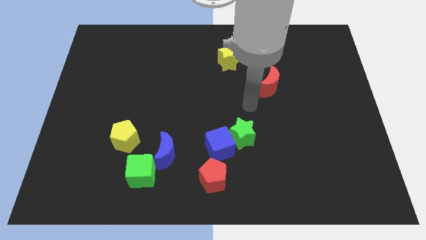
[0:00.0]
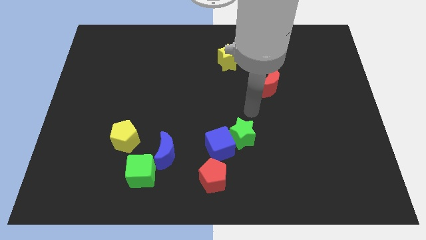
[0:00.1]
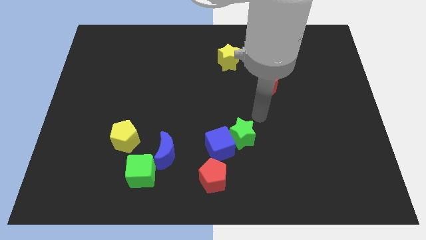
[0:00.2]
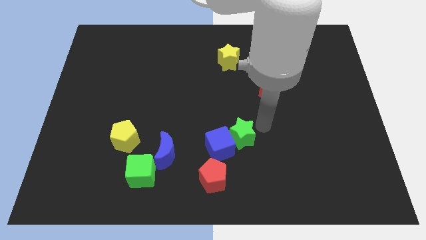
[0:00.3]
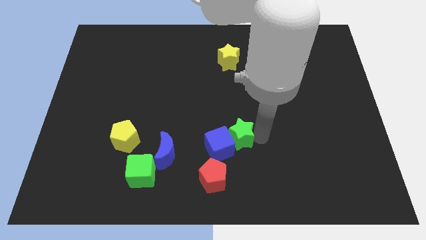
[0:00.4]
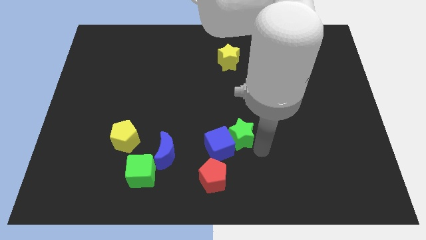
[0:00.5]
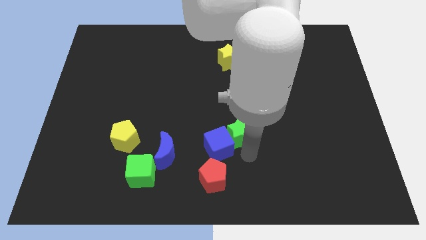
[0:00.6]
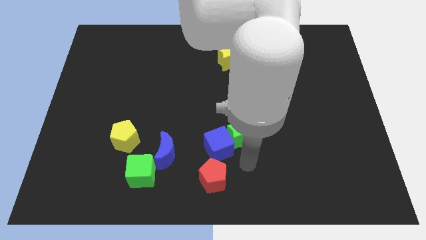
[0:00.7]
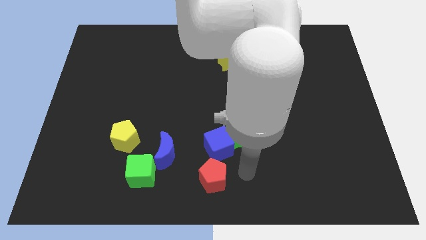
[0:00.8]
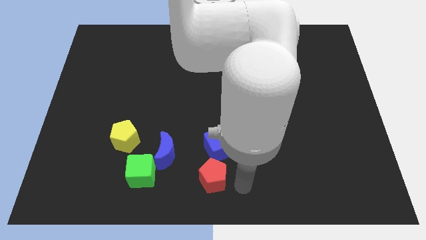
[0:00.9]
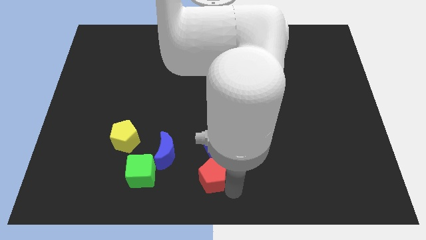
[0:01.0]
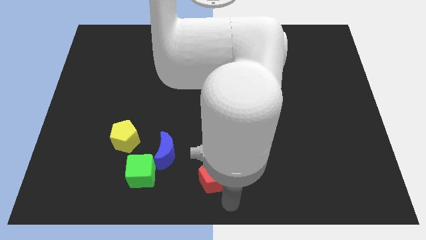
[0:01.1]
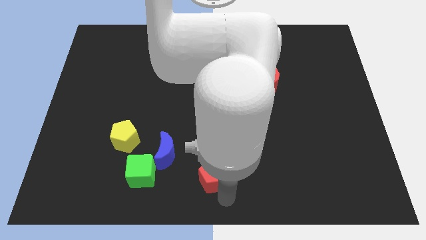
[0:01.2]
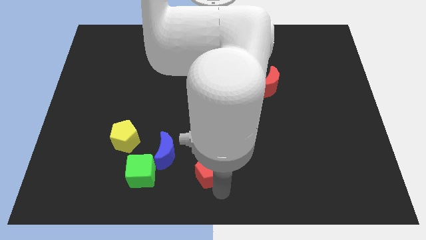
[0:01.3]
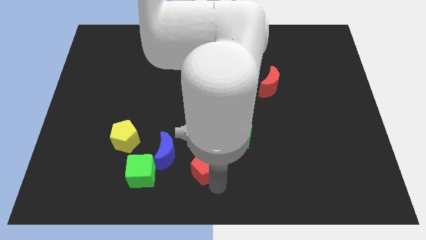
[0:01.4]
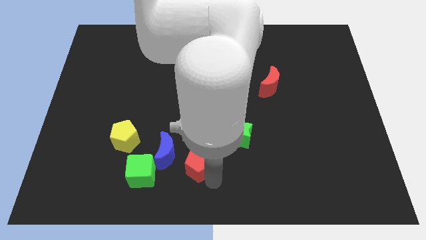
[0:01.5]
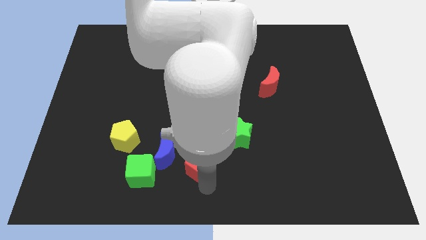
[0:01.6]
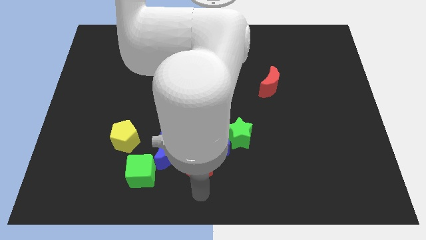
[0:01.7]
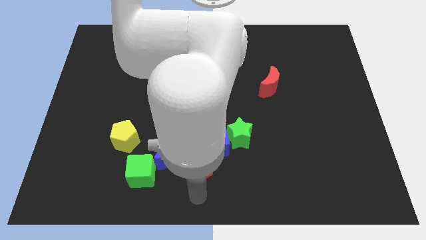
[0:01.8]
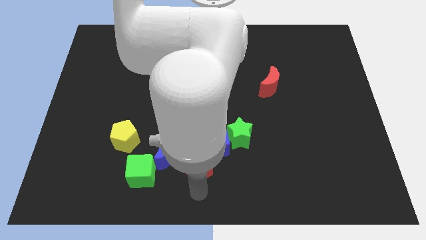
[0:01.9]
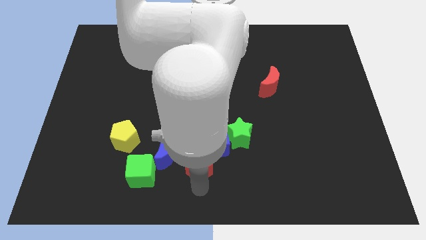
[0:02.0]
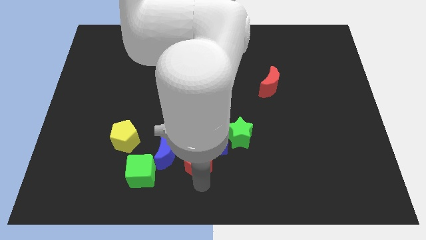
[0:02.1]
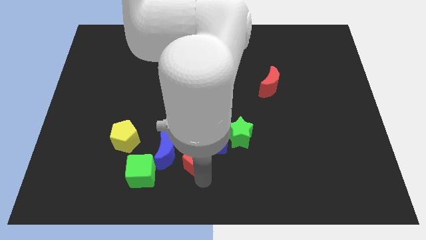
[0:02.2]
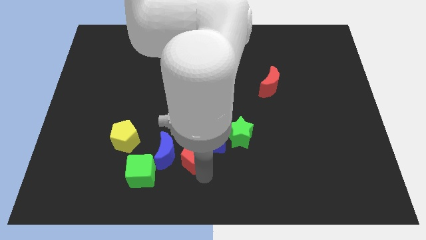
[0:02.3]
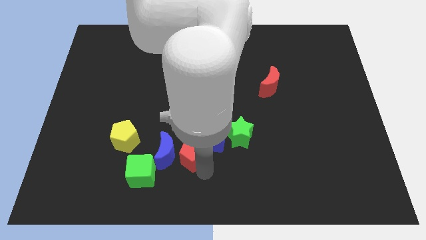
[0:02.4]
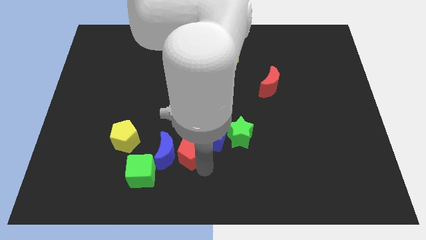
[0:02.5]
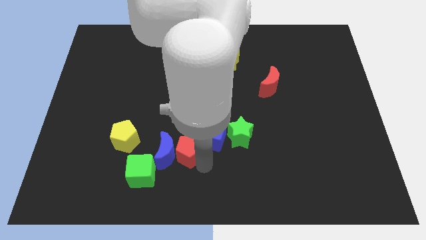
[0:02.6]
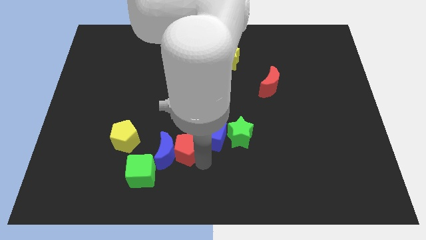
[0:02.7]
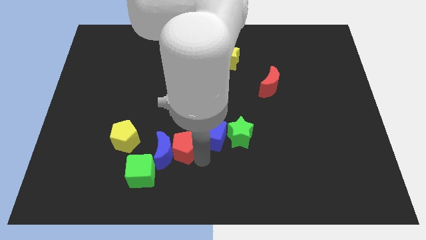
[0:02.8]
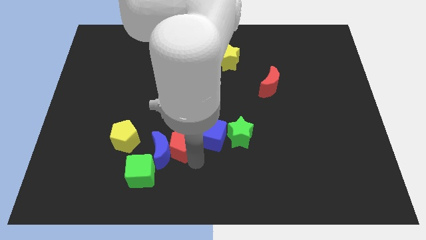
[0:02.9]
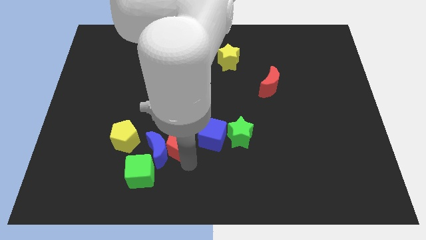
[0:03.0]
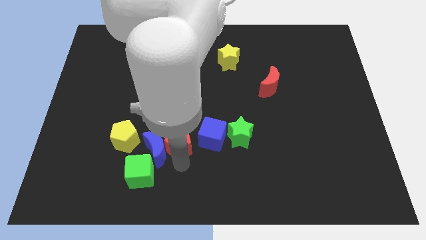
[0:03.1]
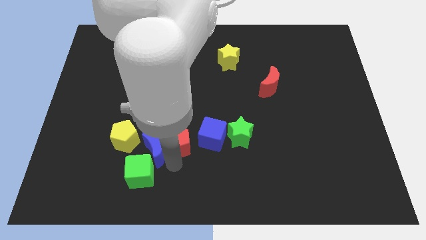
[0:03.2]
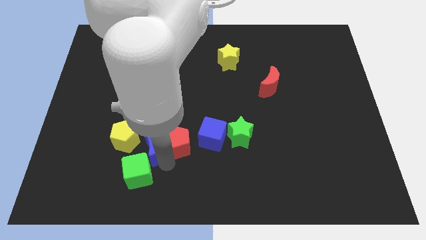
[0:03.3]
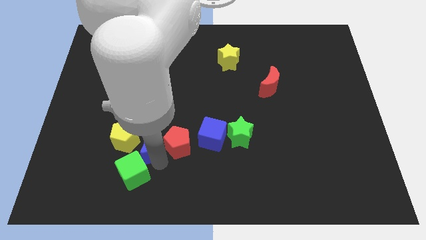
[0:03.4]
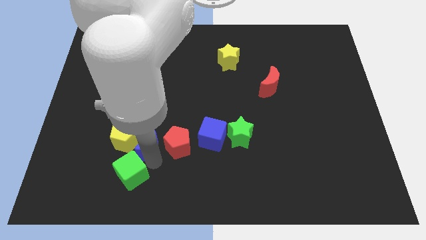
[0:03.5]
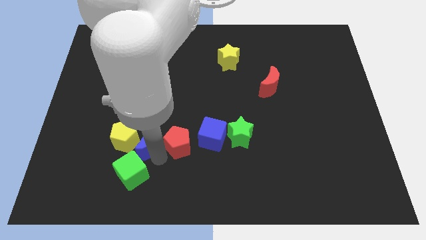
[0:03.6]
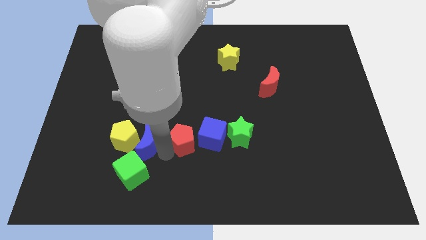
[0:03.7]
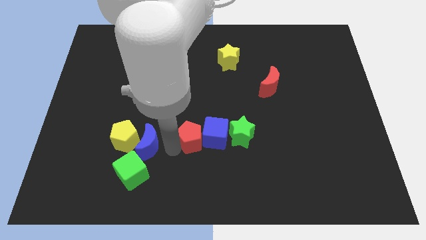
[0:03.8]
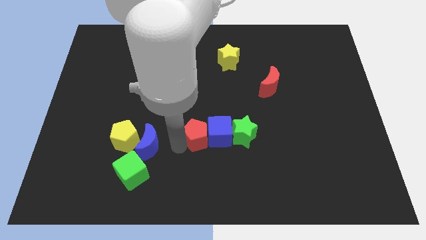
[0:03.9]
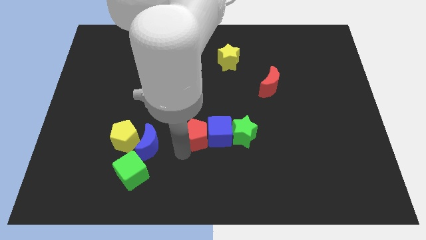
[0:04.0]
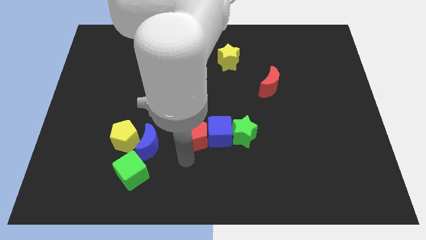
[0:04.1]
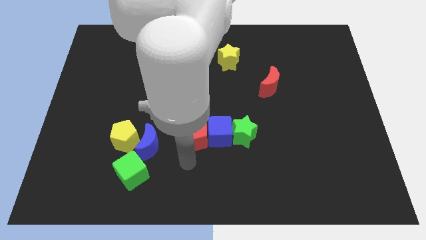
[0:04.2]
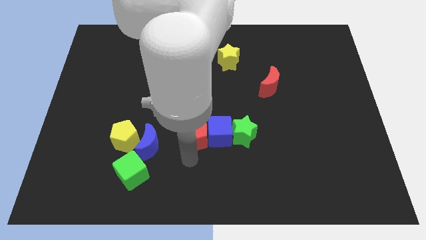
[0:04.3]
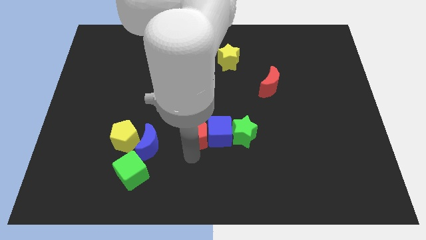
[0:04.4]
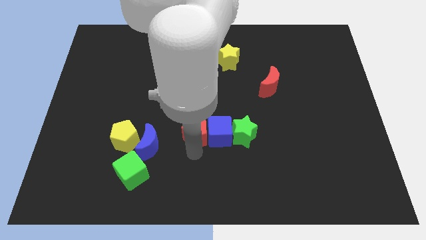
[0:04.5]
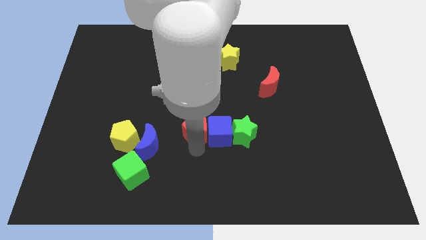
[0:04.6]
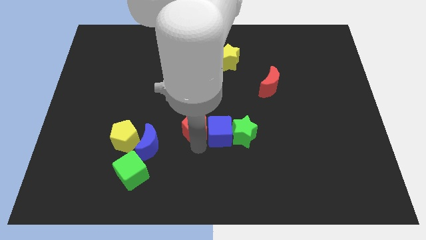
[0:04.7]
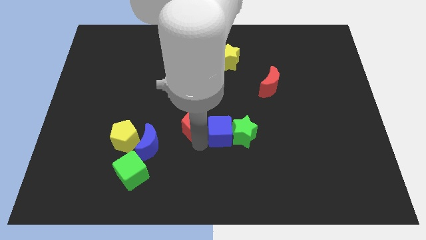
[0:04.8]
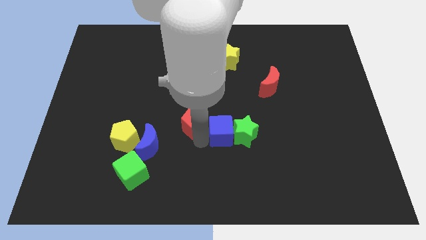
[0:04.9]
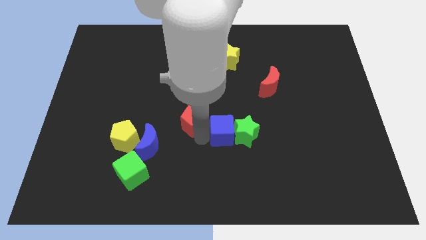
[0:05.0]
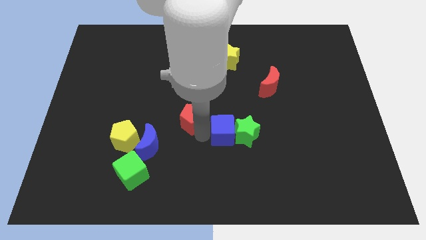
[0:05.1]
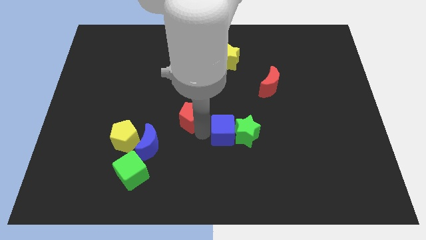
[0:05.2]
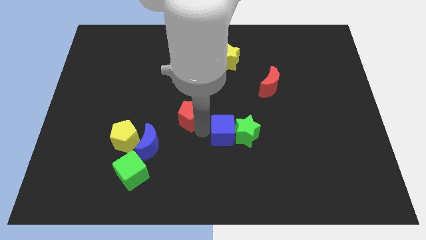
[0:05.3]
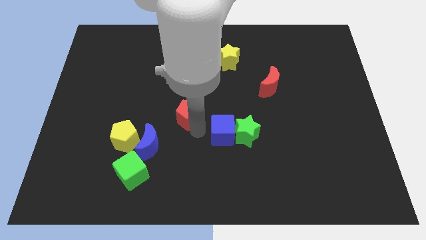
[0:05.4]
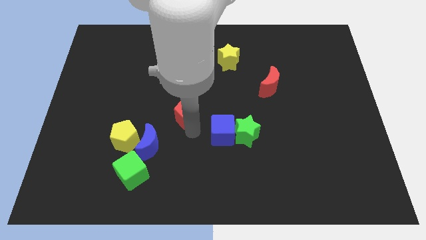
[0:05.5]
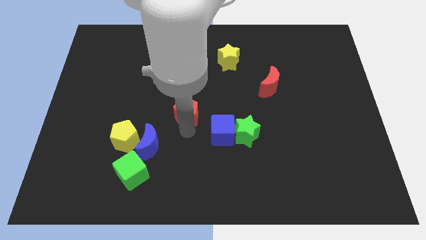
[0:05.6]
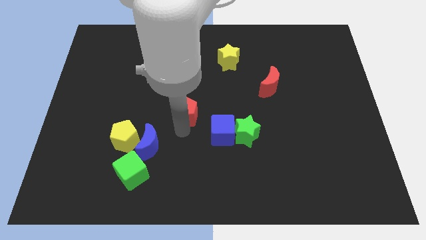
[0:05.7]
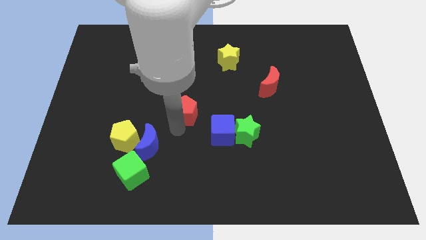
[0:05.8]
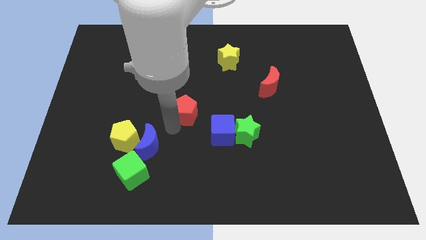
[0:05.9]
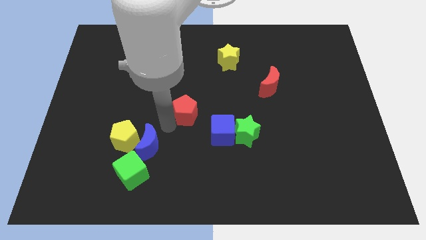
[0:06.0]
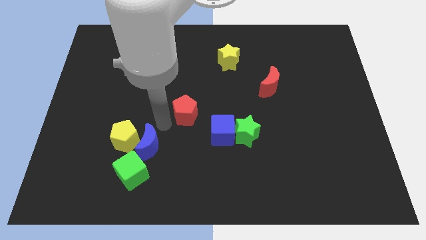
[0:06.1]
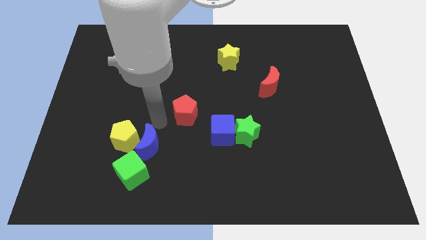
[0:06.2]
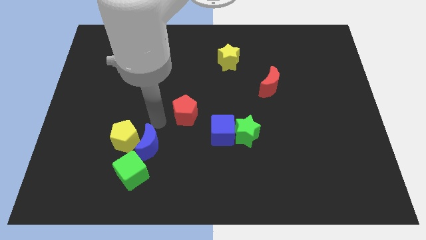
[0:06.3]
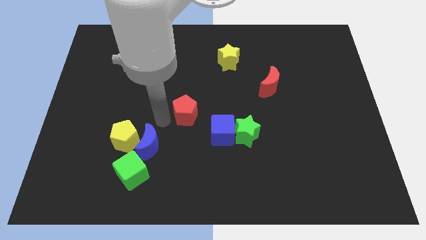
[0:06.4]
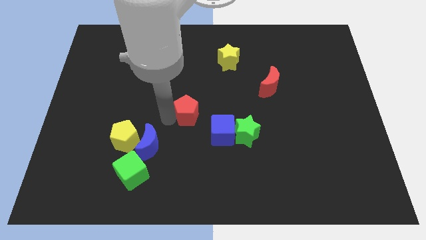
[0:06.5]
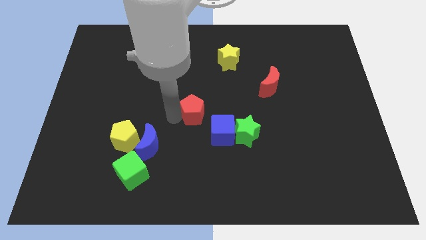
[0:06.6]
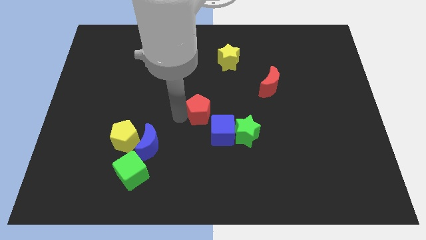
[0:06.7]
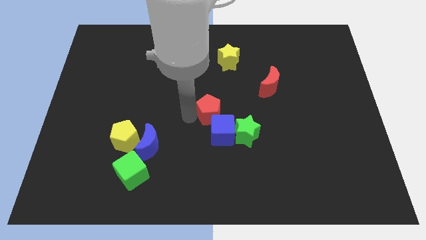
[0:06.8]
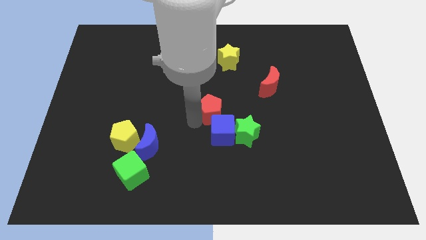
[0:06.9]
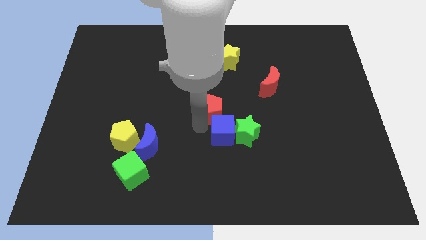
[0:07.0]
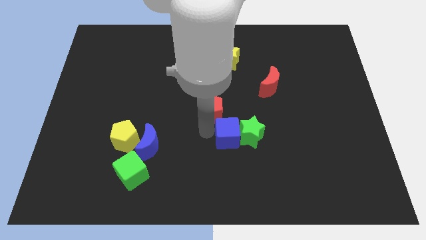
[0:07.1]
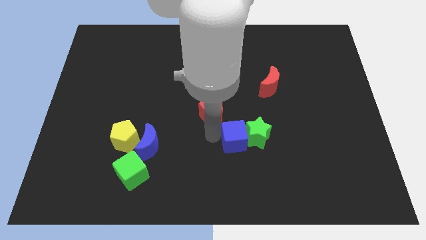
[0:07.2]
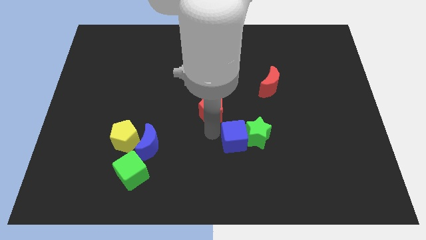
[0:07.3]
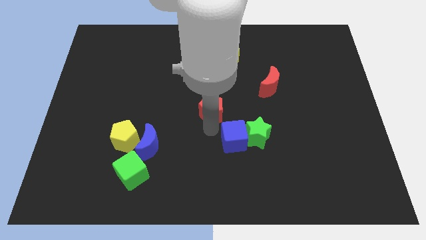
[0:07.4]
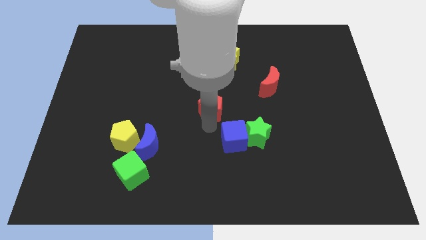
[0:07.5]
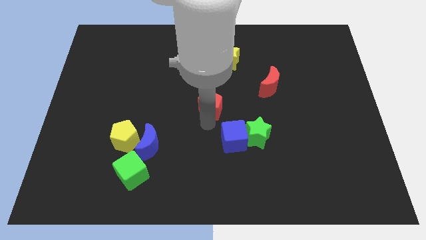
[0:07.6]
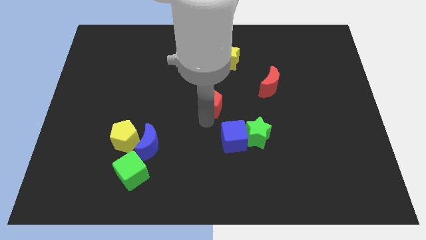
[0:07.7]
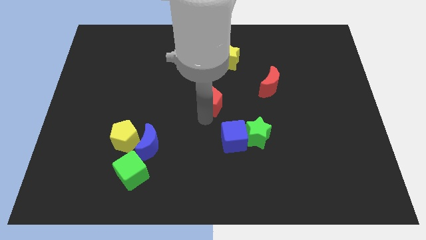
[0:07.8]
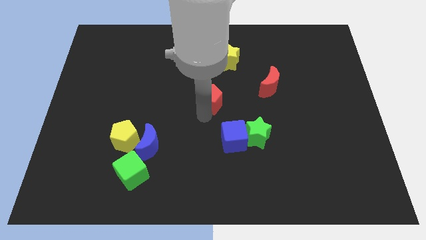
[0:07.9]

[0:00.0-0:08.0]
move the red pentagon upwards
